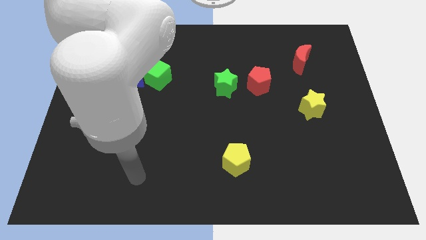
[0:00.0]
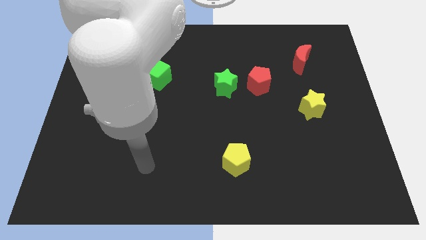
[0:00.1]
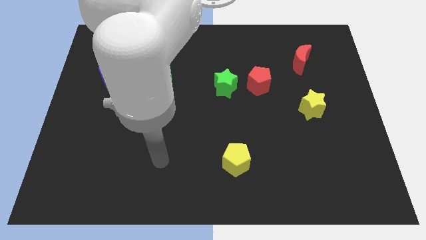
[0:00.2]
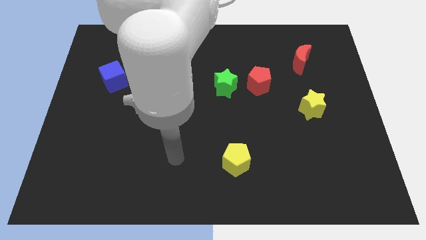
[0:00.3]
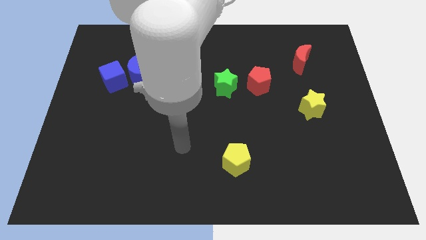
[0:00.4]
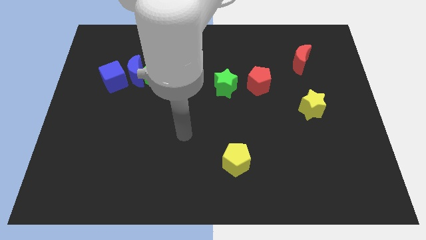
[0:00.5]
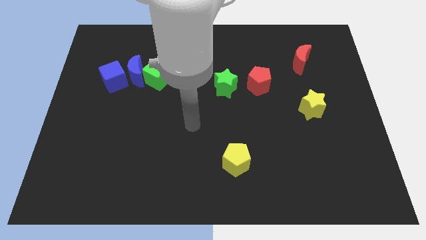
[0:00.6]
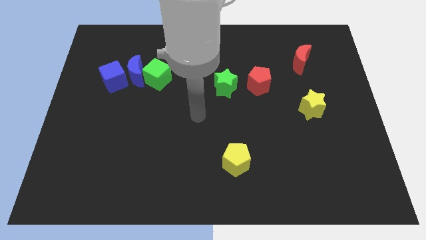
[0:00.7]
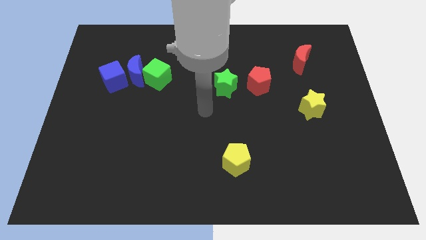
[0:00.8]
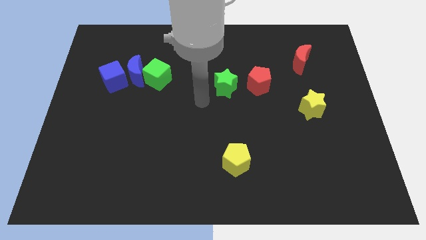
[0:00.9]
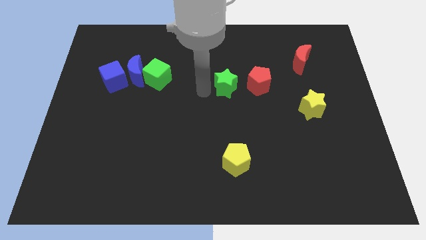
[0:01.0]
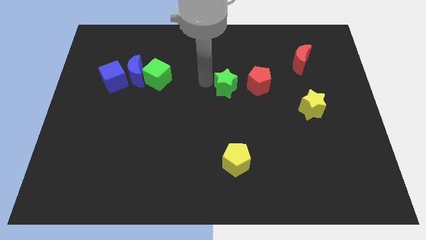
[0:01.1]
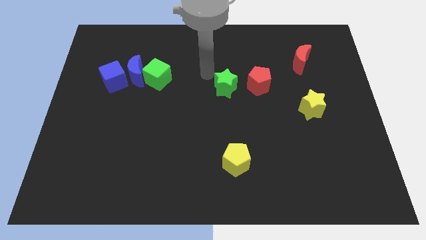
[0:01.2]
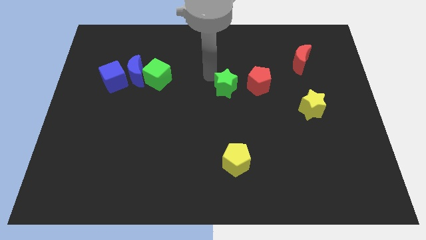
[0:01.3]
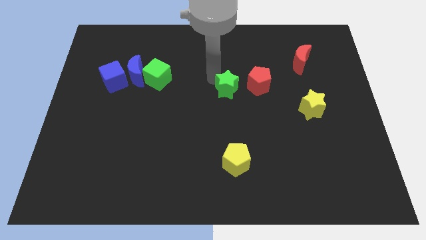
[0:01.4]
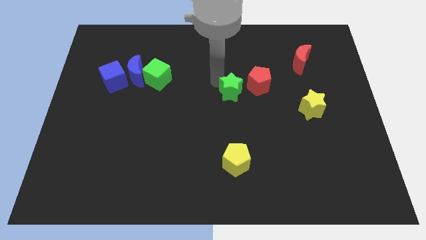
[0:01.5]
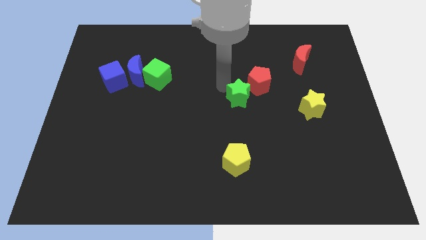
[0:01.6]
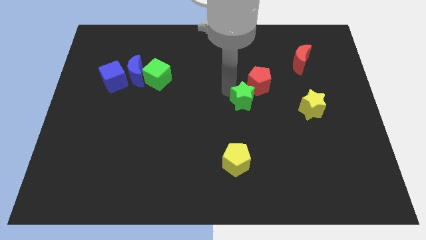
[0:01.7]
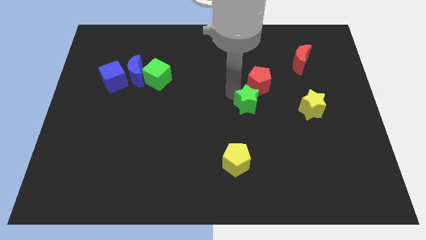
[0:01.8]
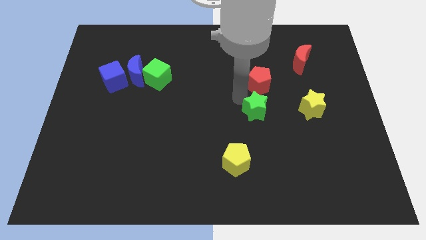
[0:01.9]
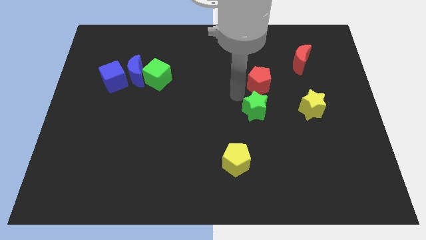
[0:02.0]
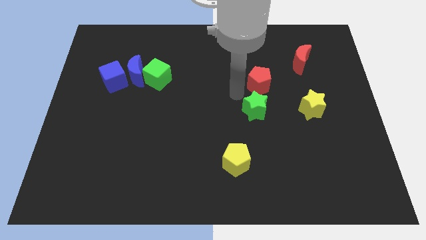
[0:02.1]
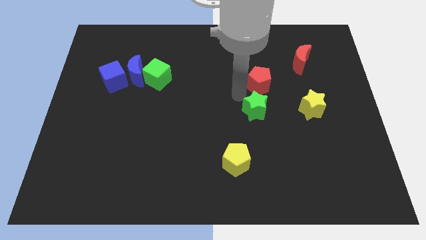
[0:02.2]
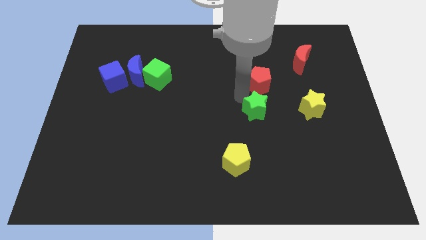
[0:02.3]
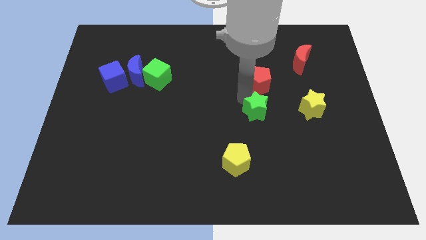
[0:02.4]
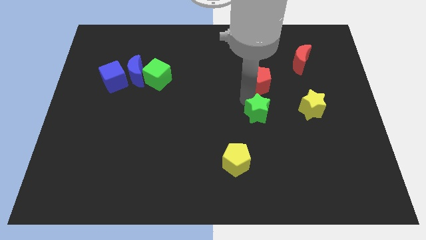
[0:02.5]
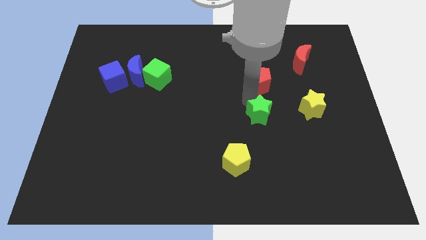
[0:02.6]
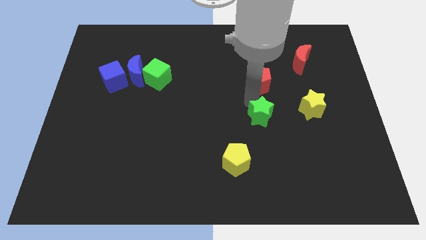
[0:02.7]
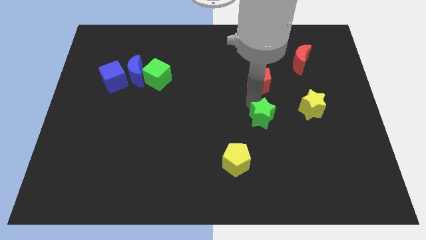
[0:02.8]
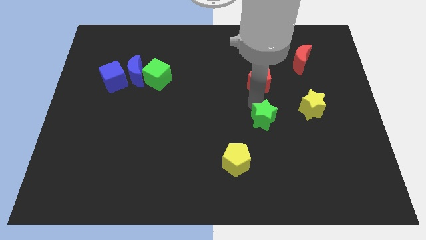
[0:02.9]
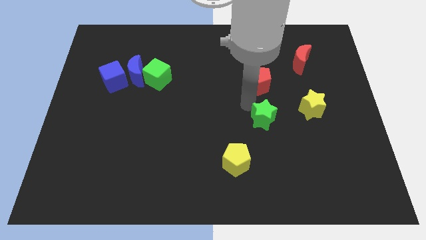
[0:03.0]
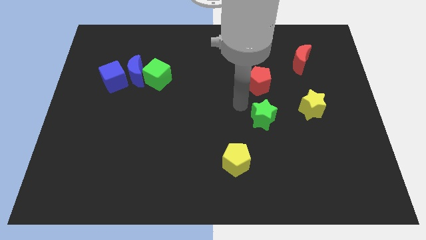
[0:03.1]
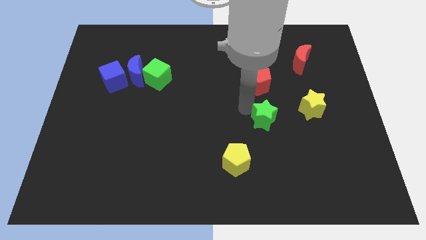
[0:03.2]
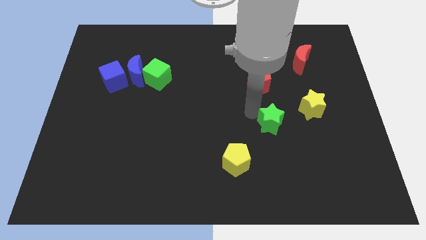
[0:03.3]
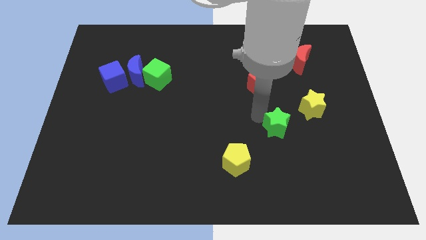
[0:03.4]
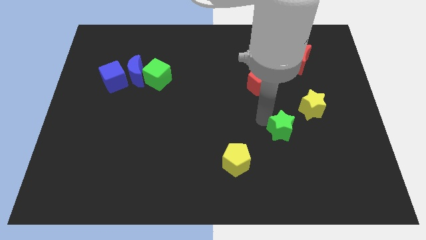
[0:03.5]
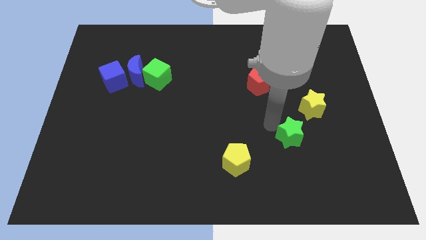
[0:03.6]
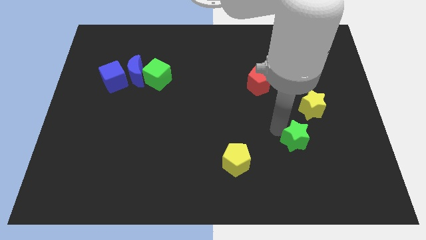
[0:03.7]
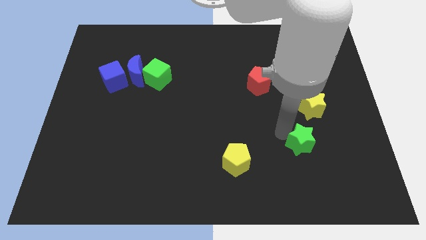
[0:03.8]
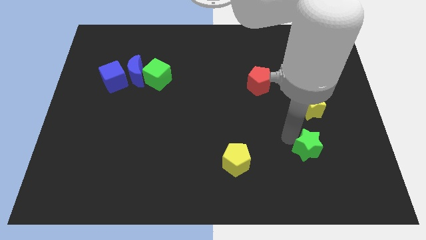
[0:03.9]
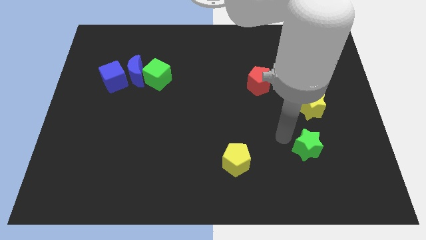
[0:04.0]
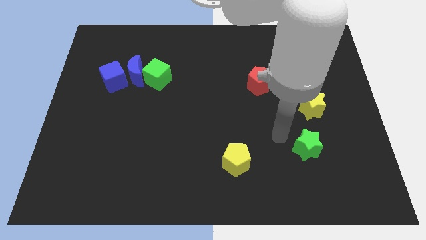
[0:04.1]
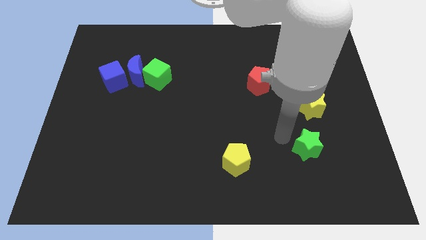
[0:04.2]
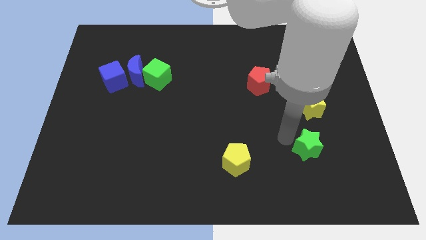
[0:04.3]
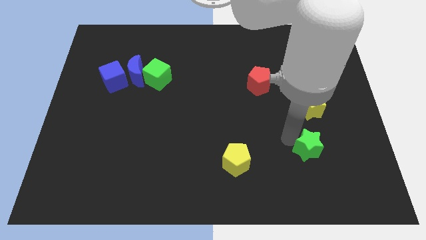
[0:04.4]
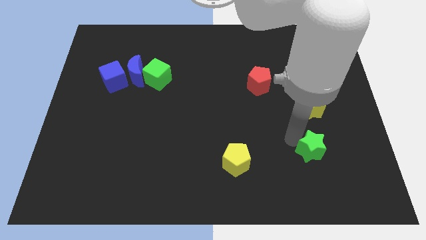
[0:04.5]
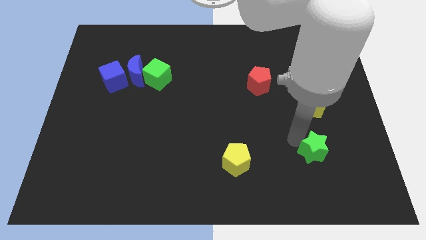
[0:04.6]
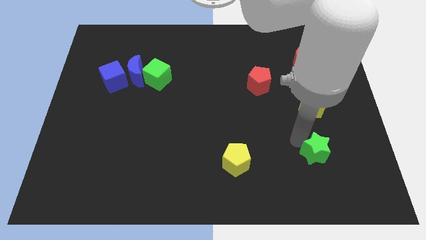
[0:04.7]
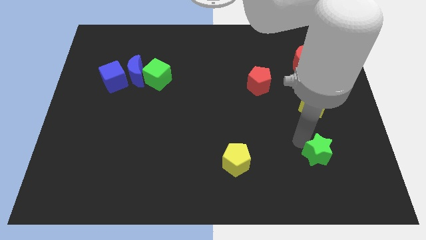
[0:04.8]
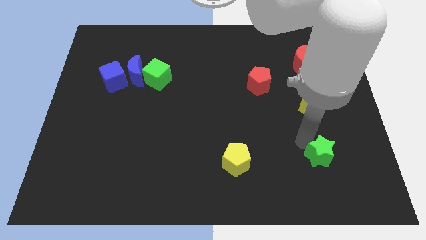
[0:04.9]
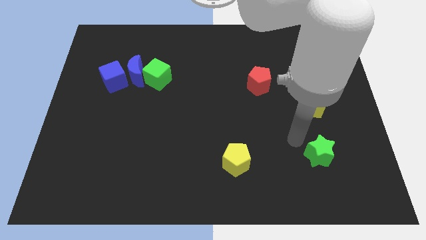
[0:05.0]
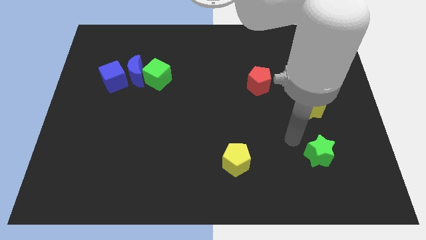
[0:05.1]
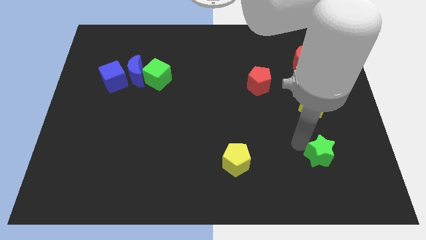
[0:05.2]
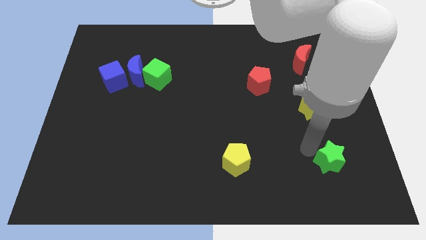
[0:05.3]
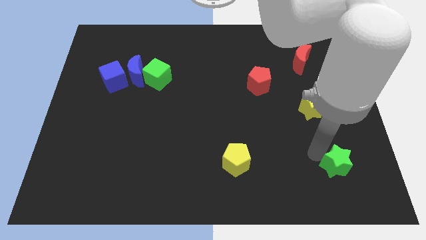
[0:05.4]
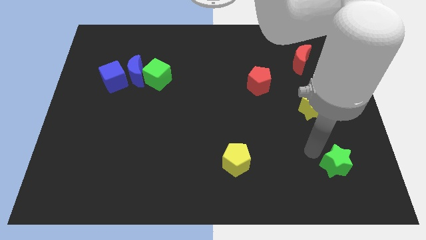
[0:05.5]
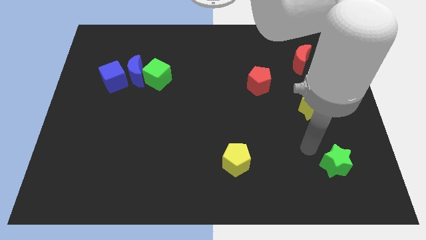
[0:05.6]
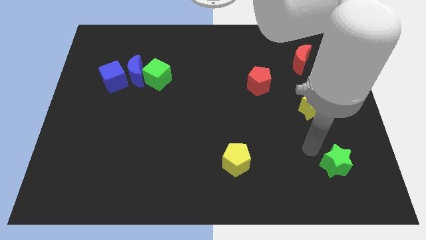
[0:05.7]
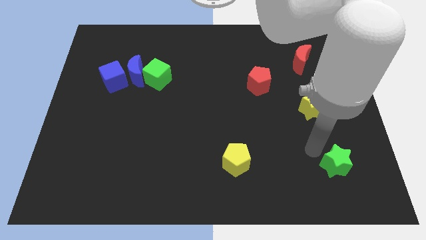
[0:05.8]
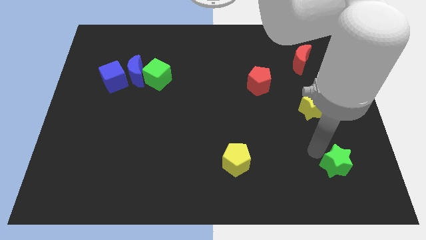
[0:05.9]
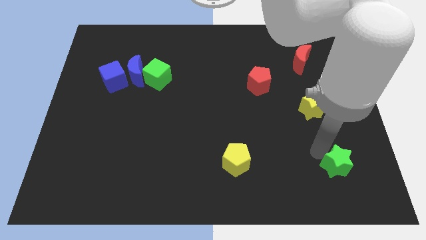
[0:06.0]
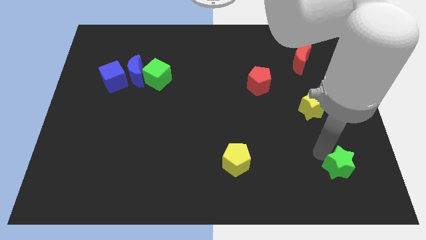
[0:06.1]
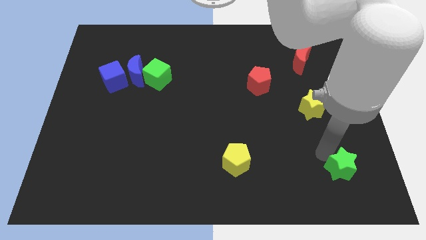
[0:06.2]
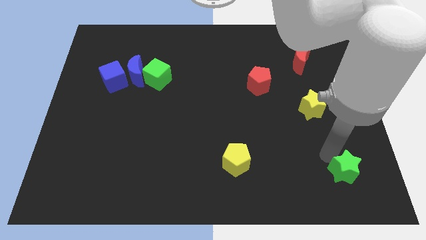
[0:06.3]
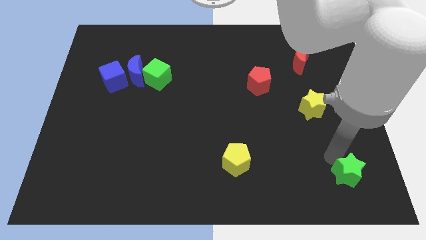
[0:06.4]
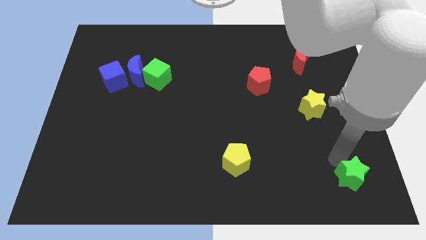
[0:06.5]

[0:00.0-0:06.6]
push the green star to the bottom right of the board
